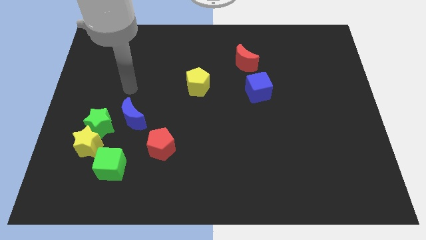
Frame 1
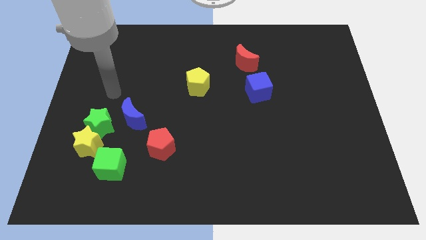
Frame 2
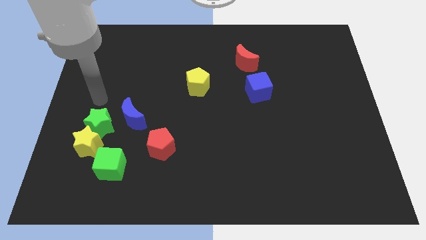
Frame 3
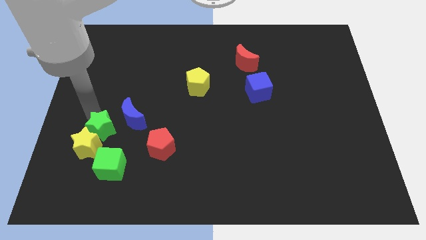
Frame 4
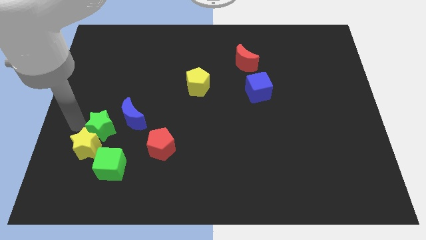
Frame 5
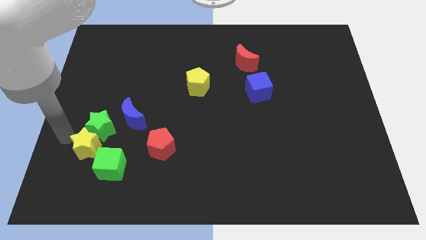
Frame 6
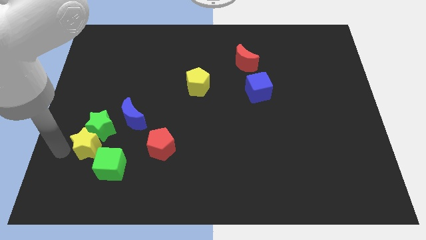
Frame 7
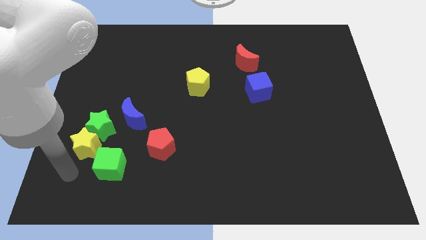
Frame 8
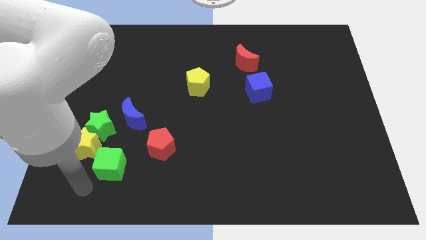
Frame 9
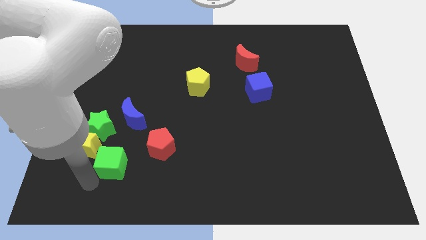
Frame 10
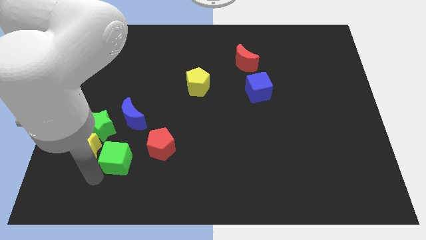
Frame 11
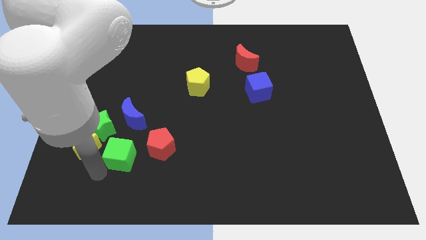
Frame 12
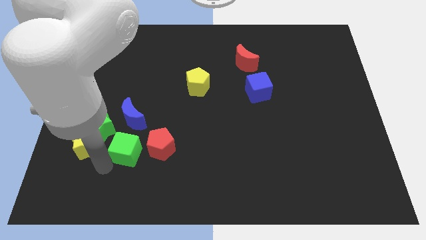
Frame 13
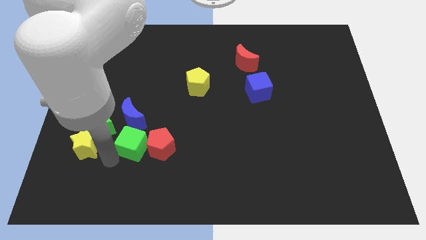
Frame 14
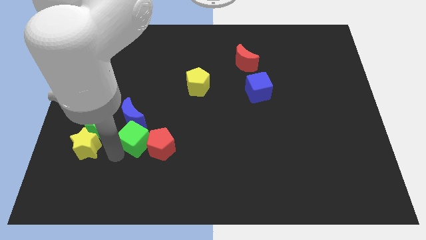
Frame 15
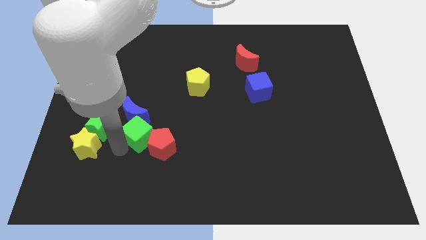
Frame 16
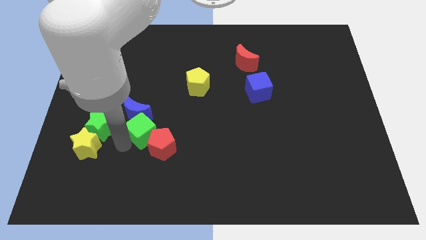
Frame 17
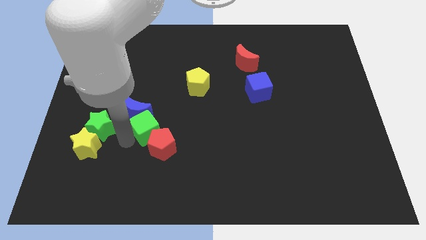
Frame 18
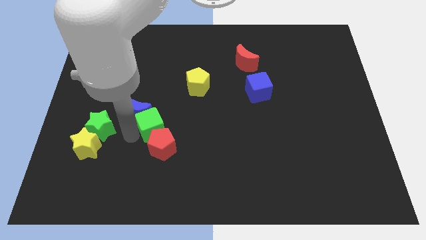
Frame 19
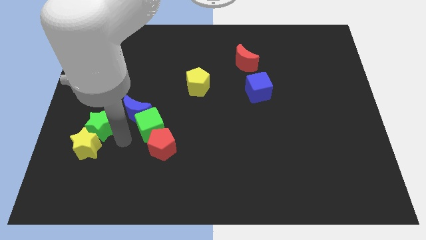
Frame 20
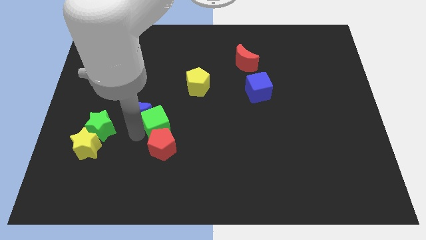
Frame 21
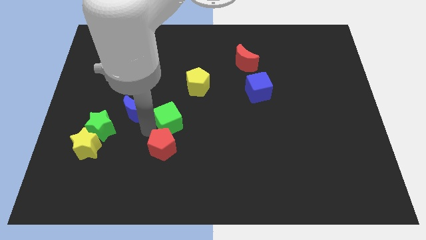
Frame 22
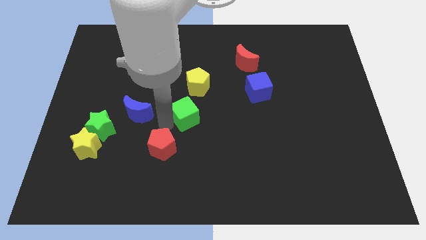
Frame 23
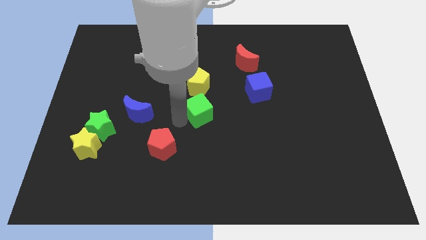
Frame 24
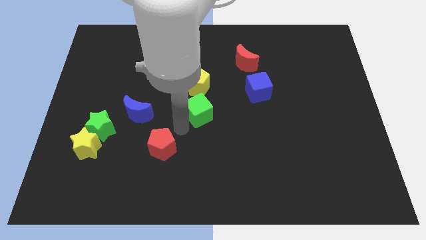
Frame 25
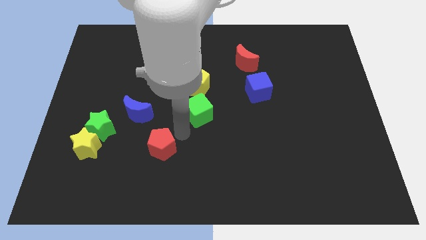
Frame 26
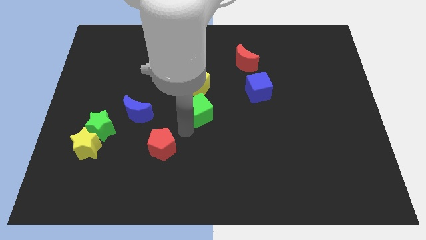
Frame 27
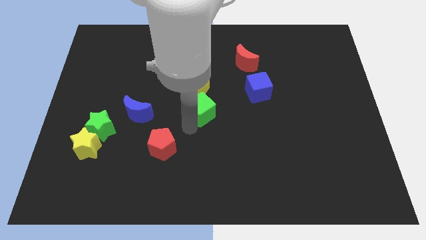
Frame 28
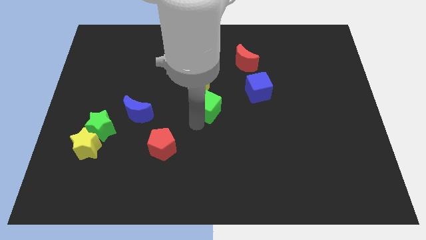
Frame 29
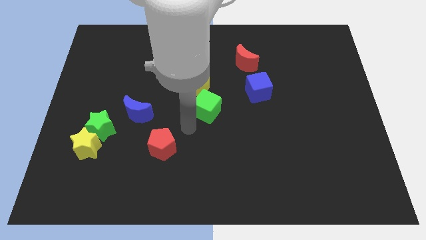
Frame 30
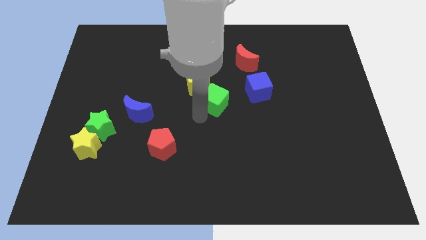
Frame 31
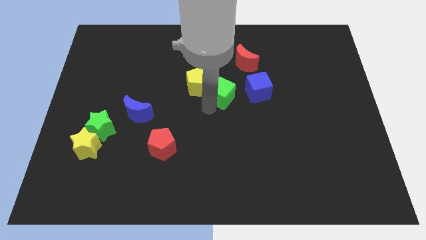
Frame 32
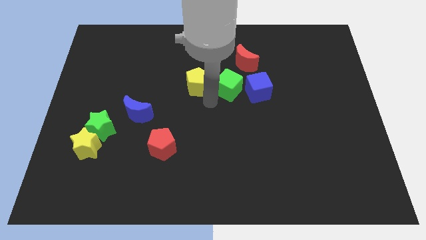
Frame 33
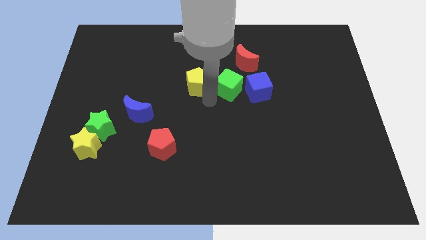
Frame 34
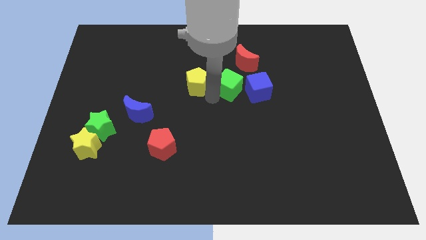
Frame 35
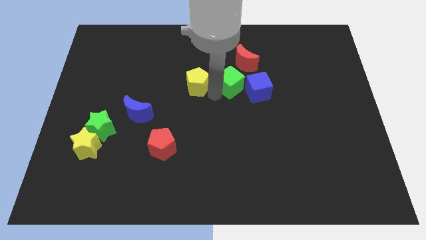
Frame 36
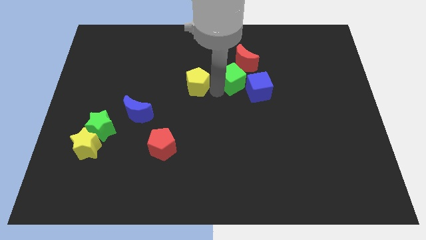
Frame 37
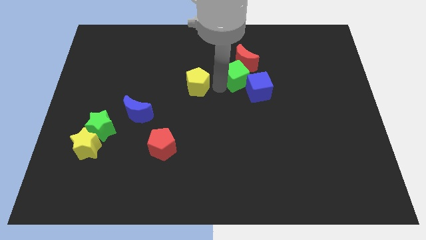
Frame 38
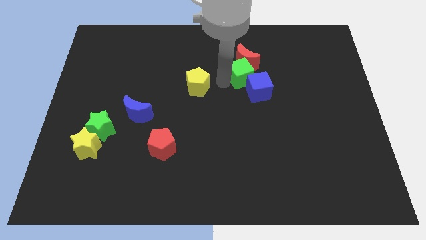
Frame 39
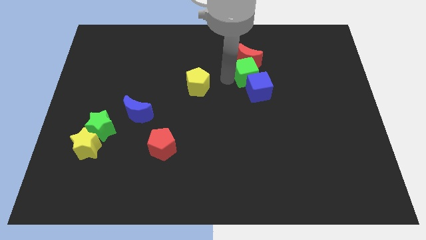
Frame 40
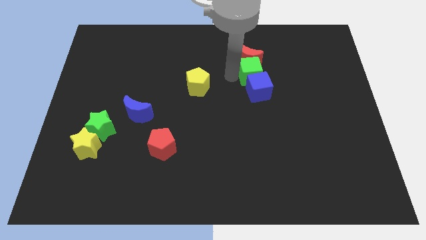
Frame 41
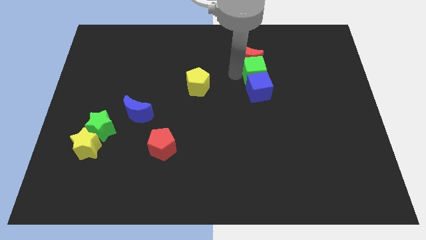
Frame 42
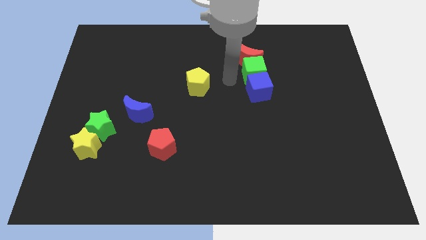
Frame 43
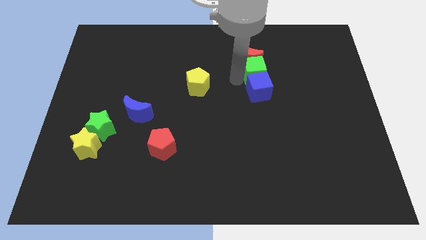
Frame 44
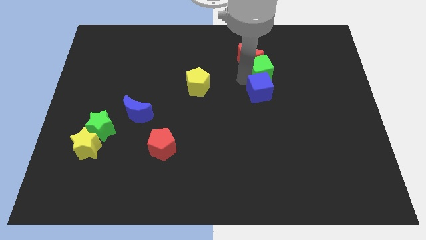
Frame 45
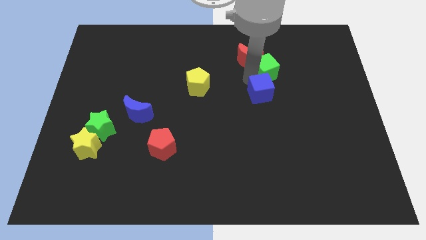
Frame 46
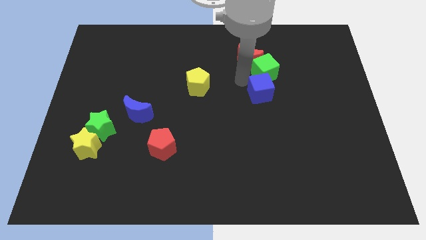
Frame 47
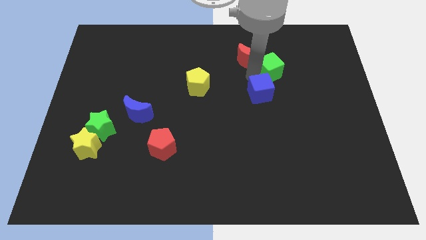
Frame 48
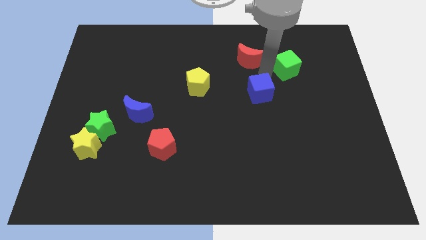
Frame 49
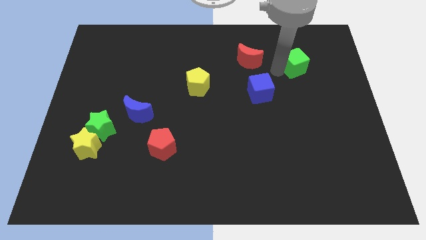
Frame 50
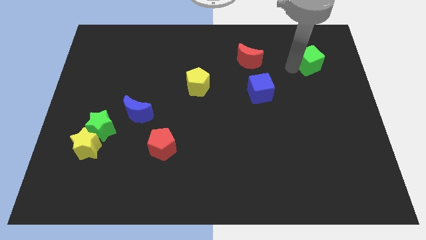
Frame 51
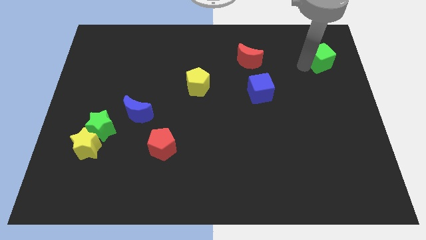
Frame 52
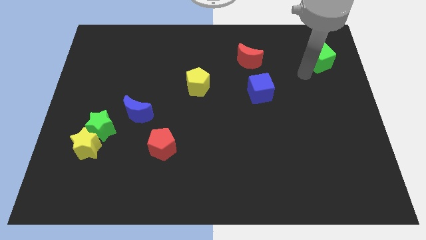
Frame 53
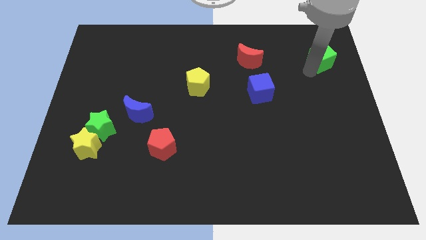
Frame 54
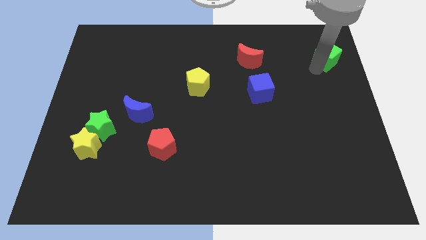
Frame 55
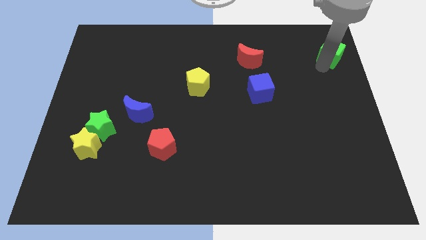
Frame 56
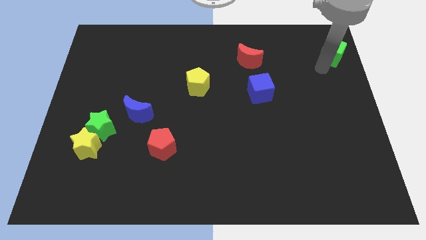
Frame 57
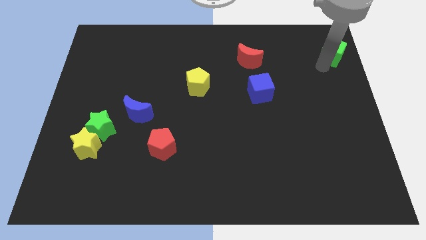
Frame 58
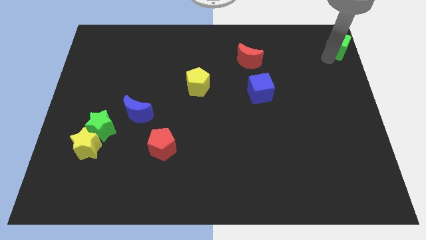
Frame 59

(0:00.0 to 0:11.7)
push the green cube to the top right
